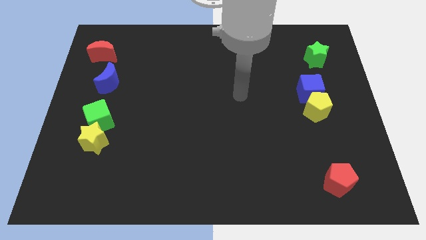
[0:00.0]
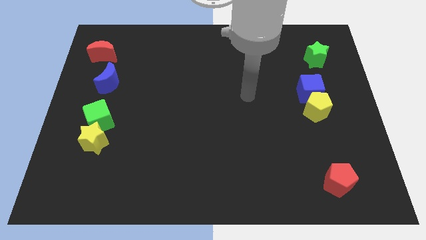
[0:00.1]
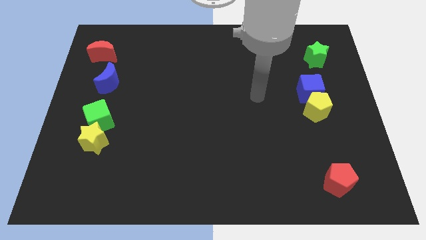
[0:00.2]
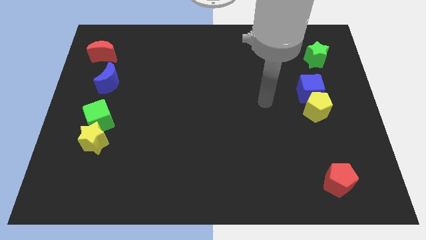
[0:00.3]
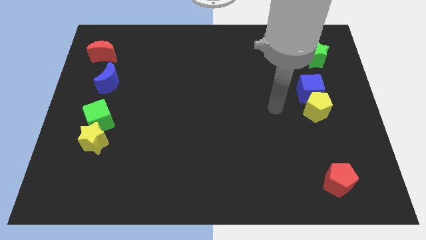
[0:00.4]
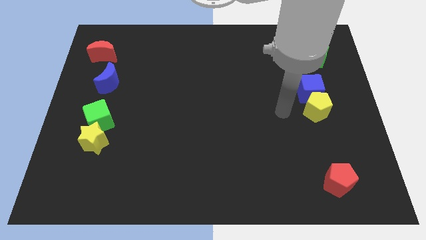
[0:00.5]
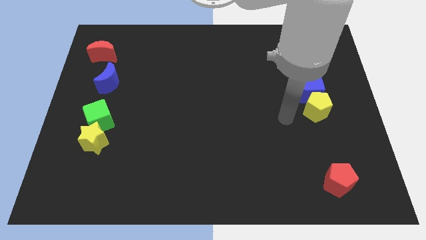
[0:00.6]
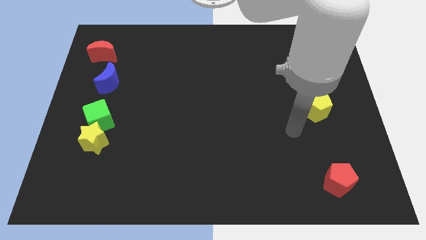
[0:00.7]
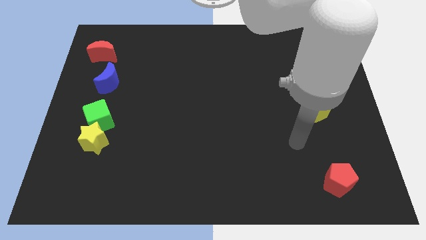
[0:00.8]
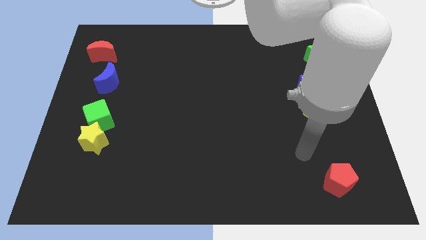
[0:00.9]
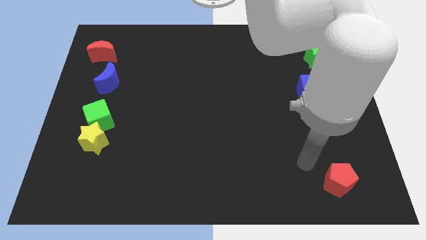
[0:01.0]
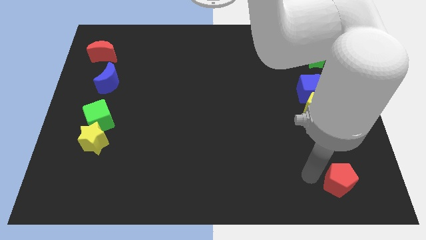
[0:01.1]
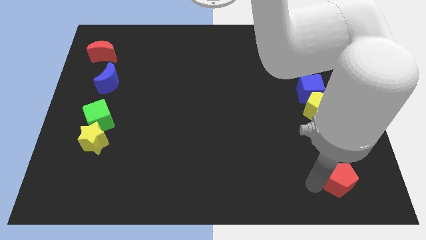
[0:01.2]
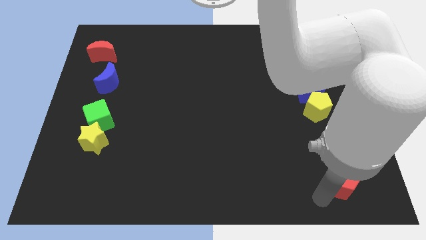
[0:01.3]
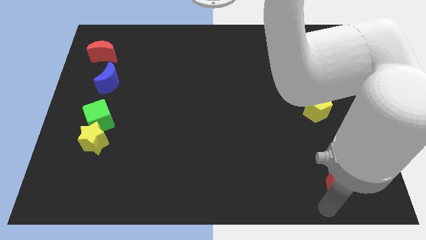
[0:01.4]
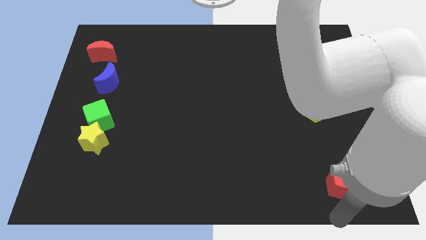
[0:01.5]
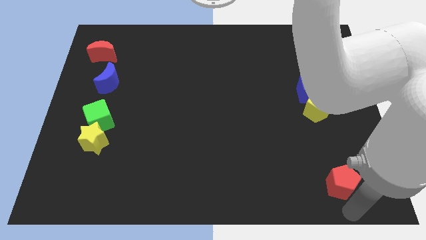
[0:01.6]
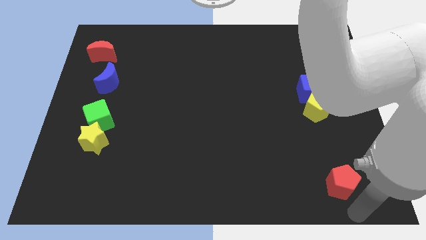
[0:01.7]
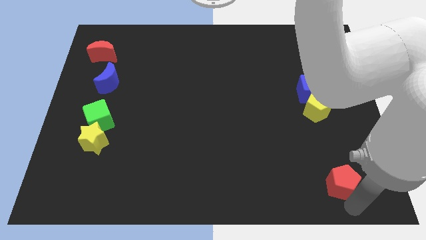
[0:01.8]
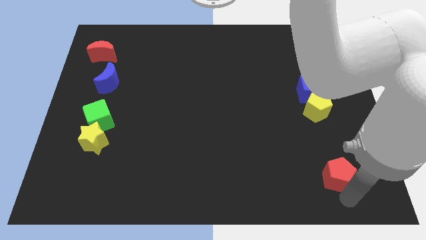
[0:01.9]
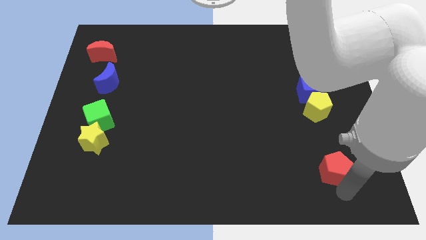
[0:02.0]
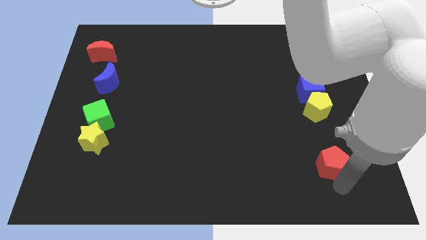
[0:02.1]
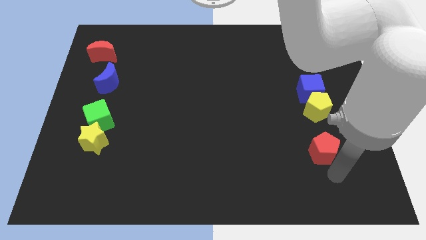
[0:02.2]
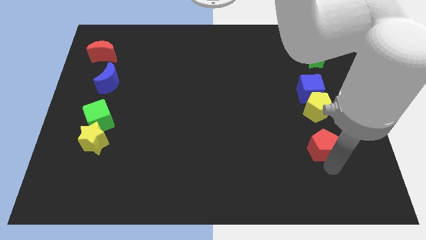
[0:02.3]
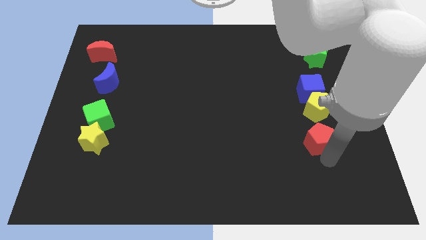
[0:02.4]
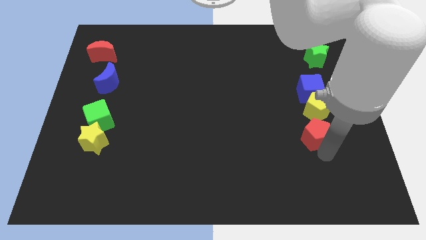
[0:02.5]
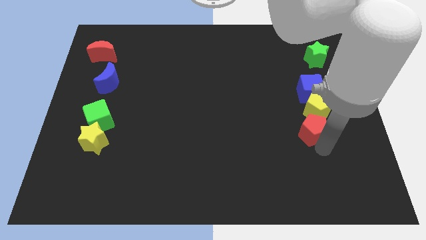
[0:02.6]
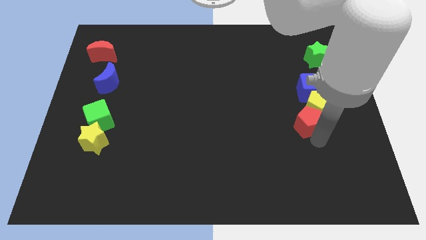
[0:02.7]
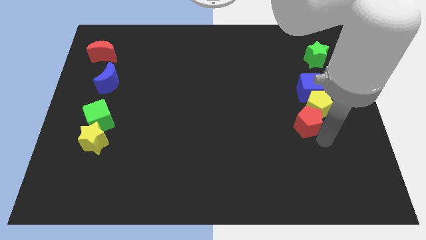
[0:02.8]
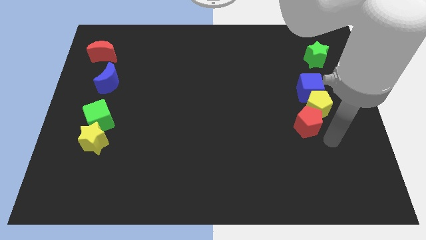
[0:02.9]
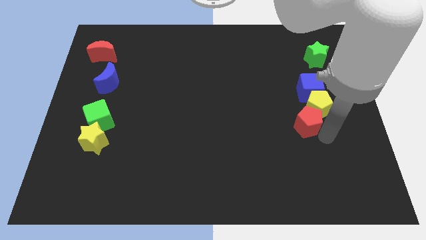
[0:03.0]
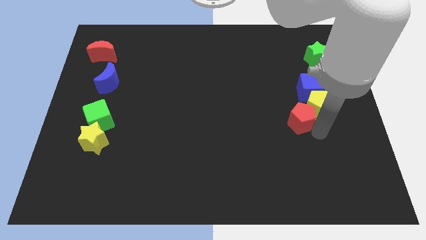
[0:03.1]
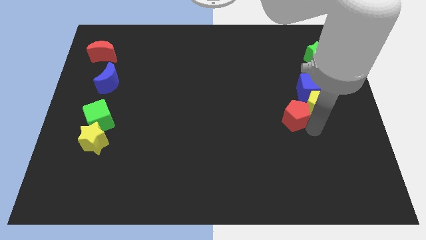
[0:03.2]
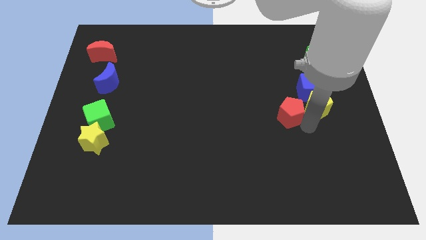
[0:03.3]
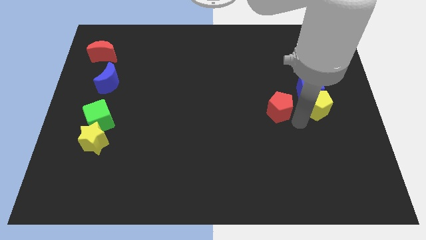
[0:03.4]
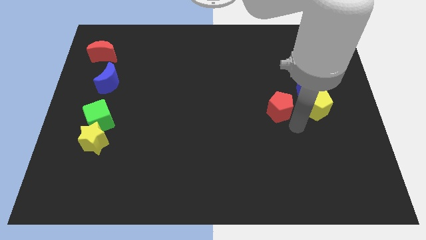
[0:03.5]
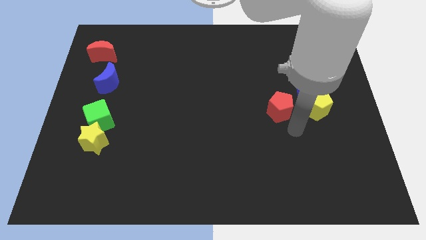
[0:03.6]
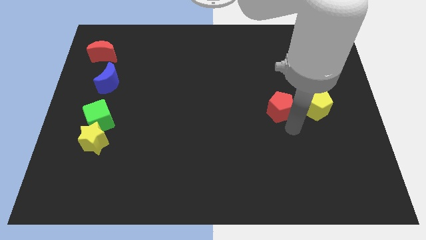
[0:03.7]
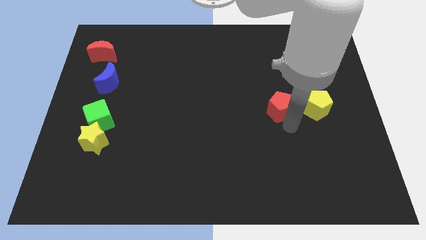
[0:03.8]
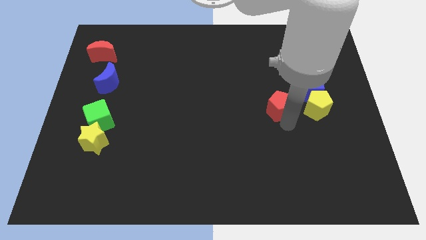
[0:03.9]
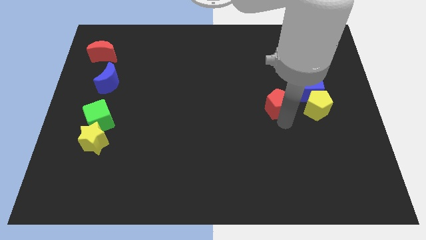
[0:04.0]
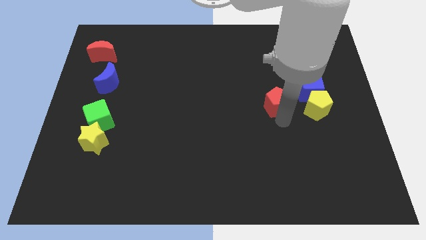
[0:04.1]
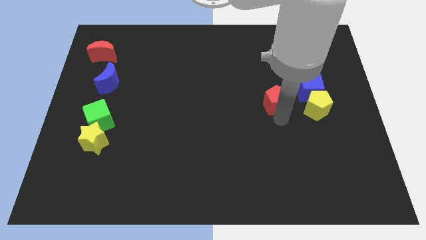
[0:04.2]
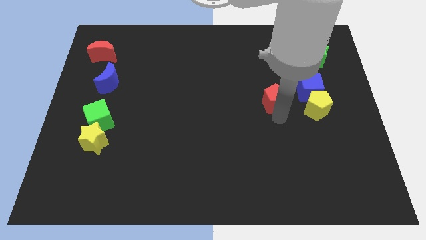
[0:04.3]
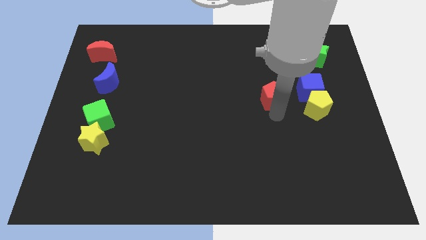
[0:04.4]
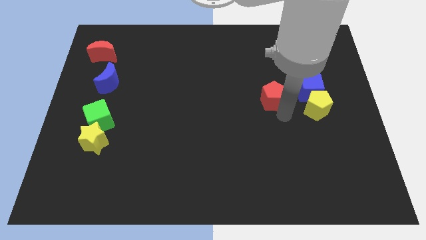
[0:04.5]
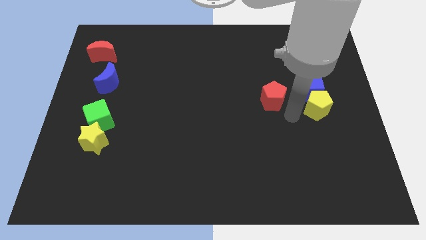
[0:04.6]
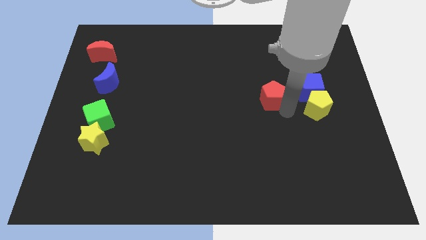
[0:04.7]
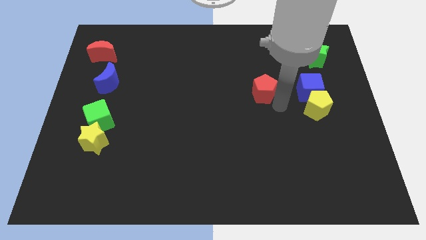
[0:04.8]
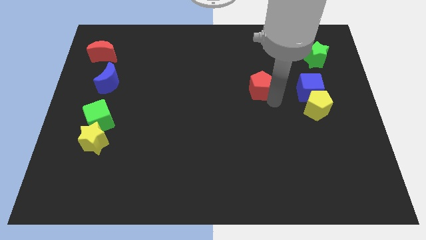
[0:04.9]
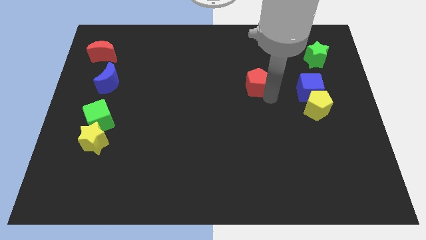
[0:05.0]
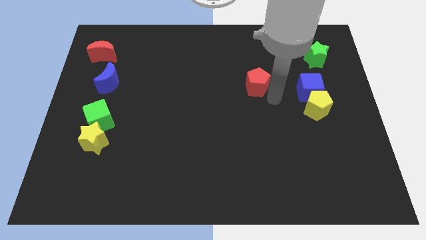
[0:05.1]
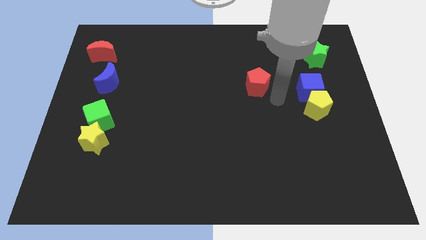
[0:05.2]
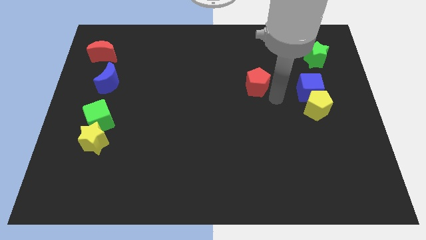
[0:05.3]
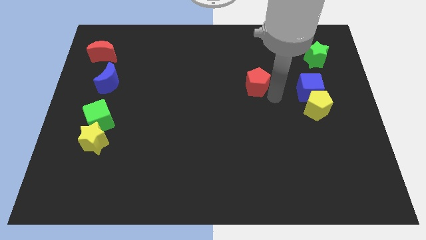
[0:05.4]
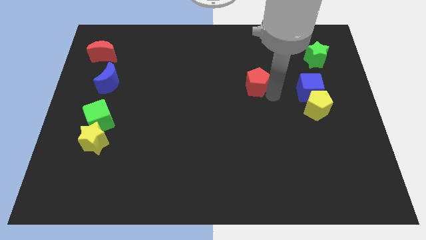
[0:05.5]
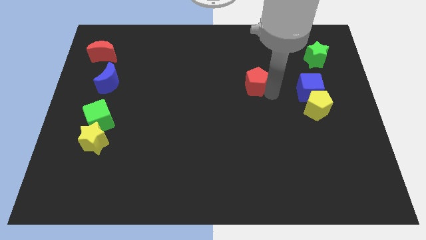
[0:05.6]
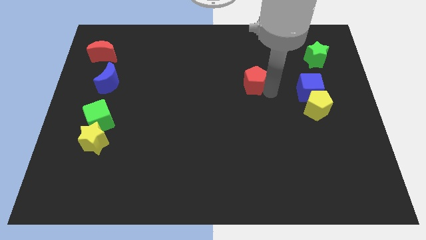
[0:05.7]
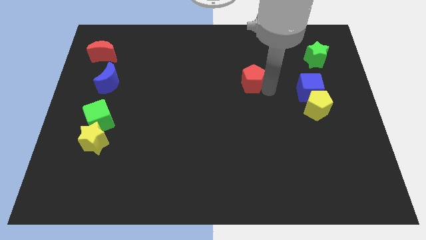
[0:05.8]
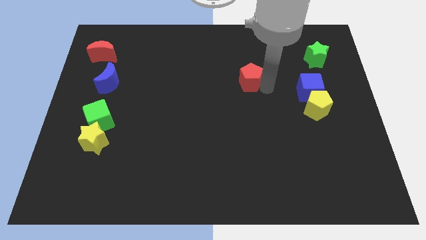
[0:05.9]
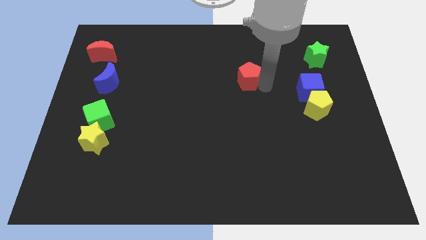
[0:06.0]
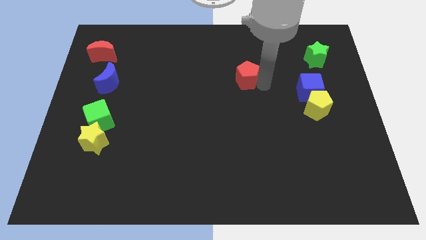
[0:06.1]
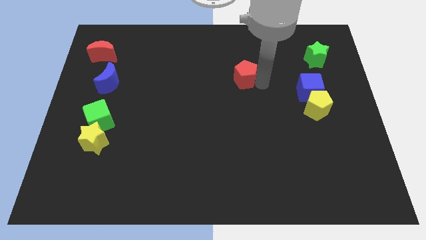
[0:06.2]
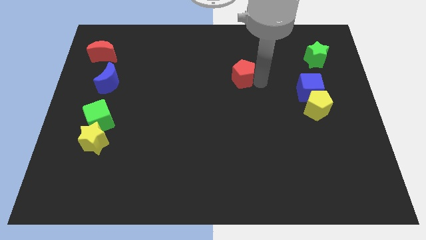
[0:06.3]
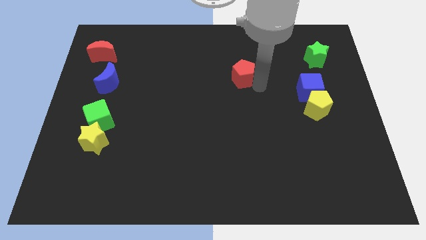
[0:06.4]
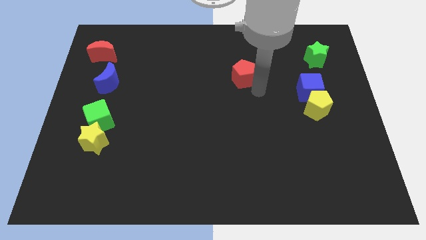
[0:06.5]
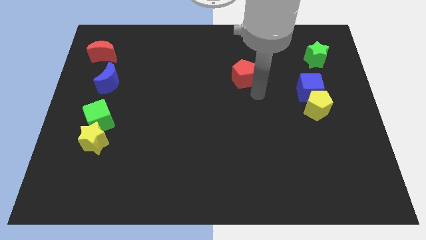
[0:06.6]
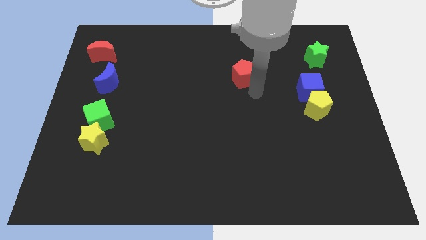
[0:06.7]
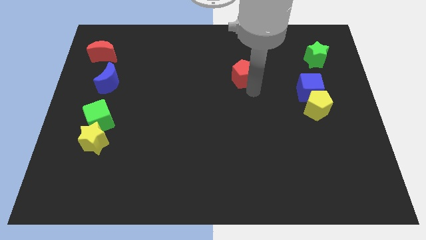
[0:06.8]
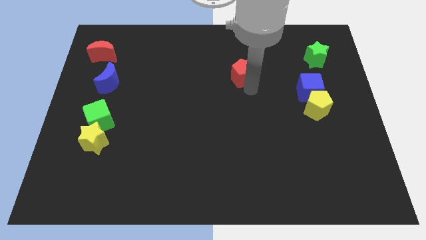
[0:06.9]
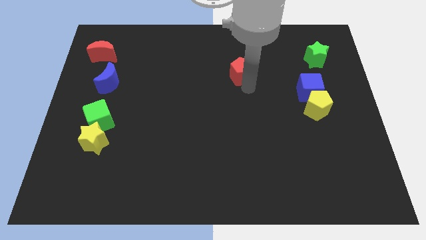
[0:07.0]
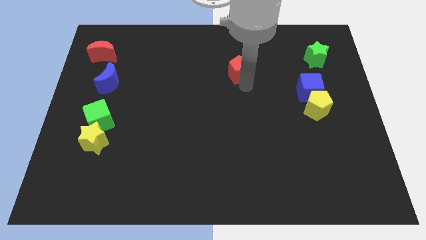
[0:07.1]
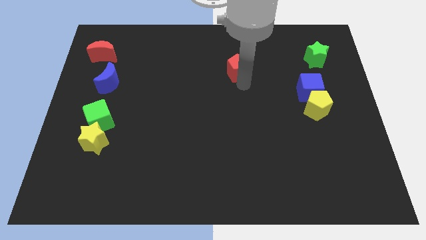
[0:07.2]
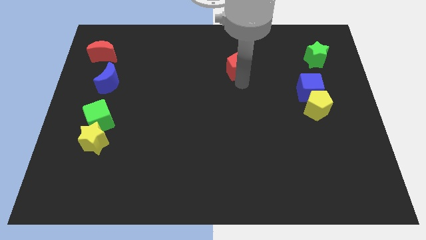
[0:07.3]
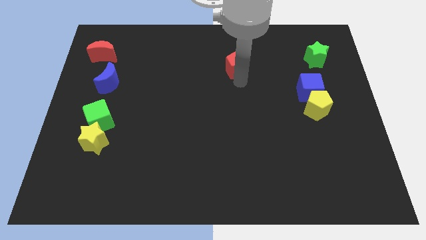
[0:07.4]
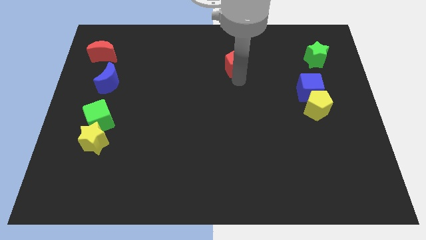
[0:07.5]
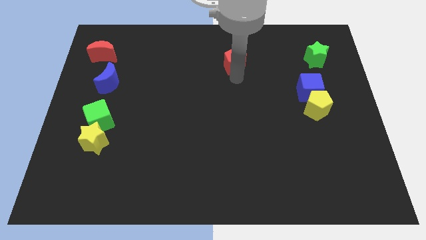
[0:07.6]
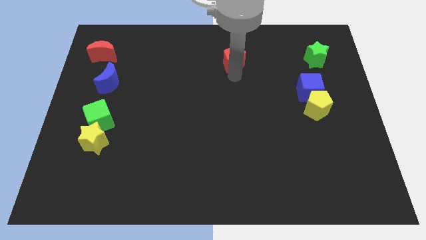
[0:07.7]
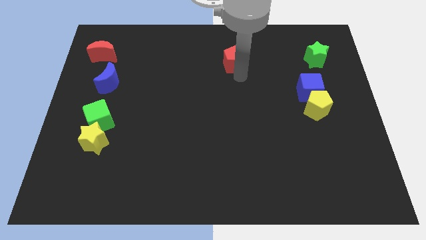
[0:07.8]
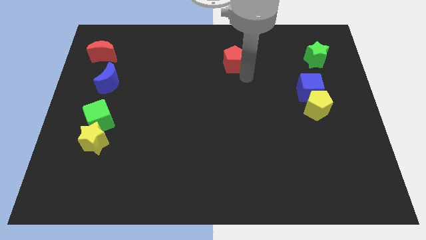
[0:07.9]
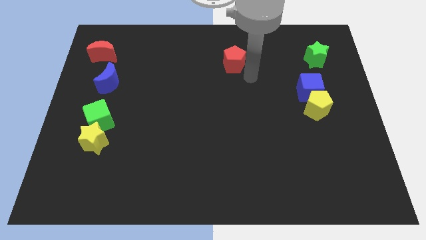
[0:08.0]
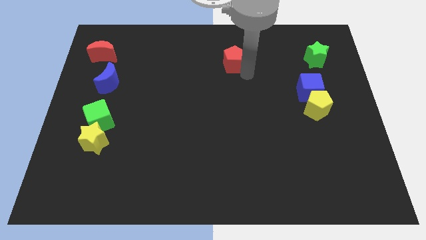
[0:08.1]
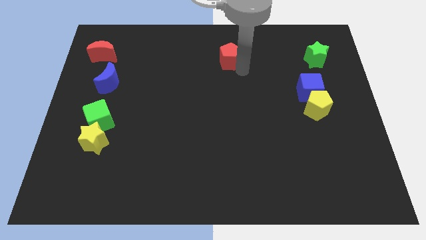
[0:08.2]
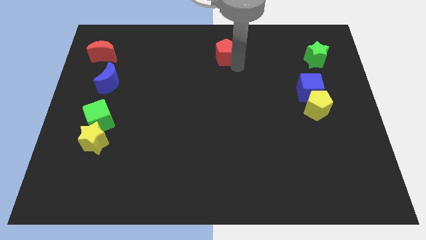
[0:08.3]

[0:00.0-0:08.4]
push the red pentagon to the towards your base
